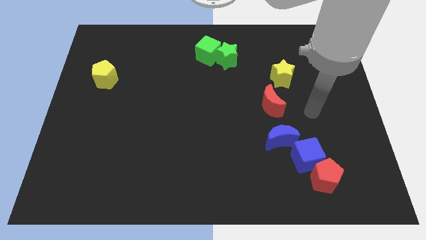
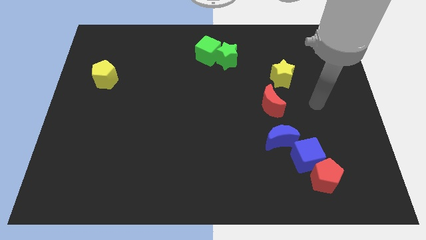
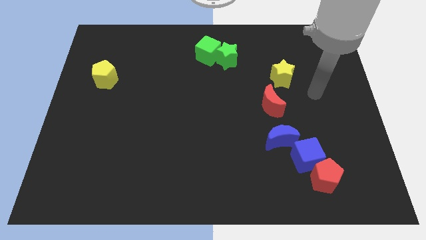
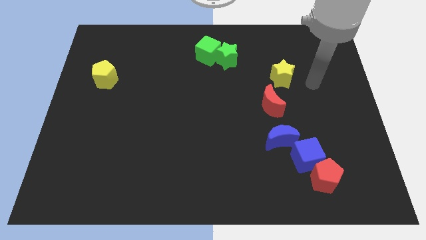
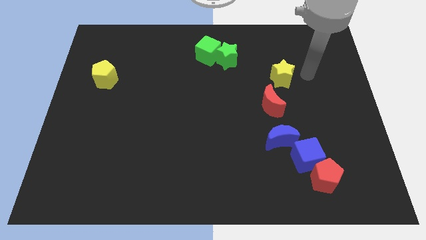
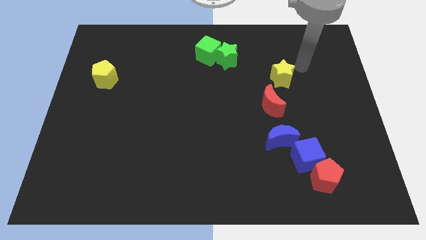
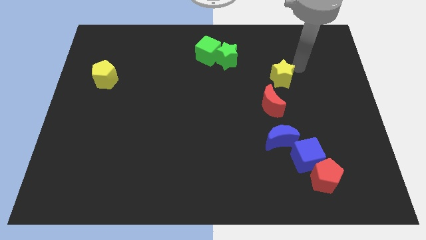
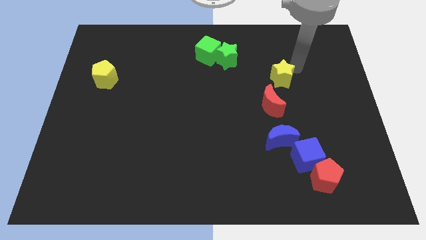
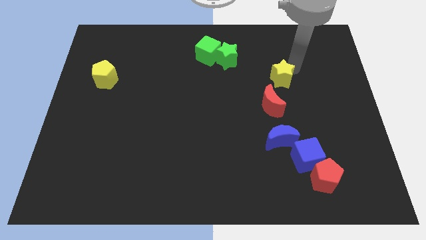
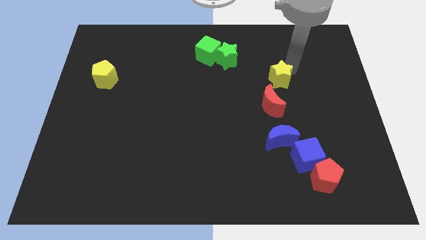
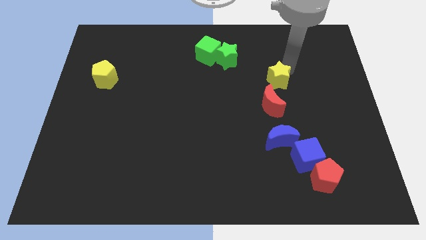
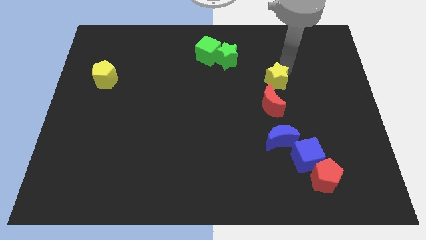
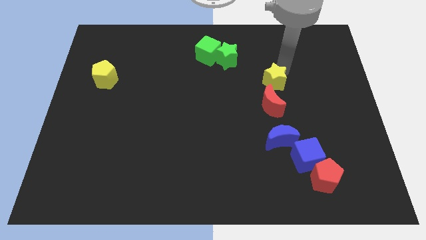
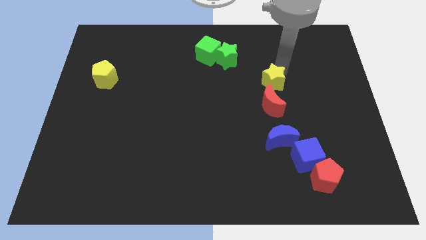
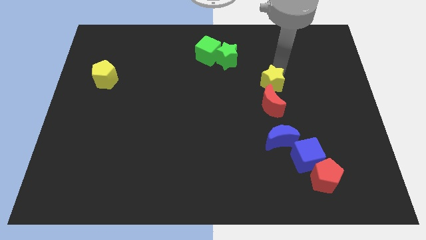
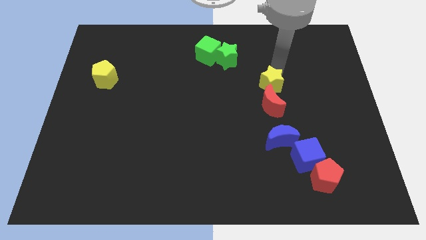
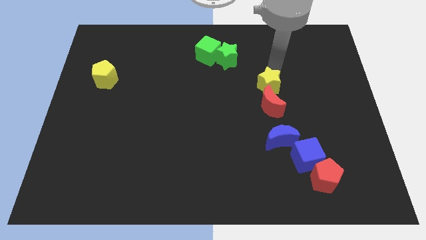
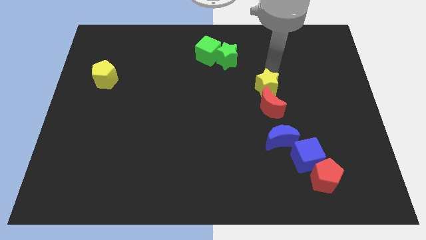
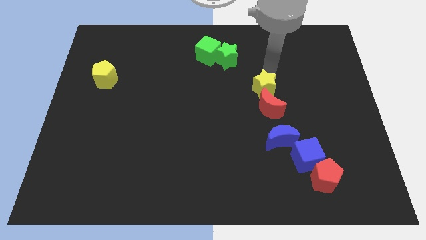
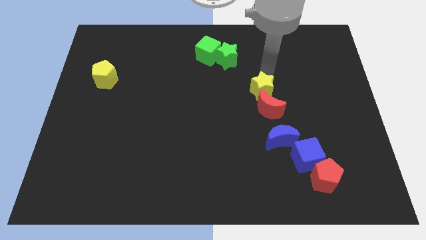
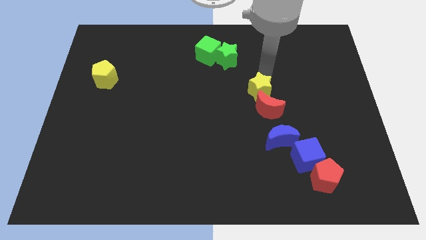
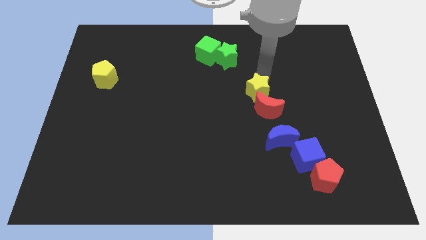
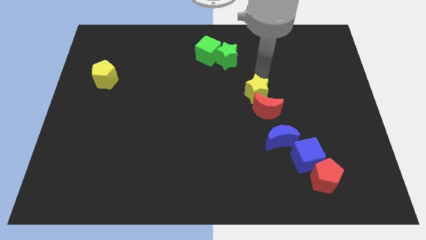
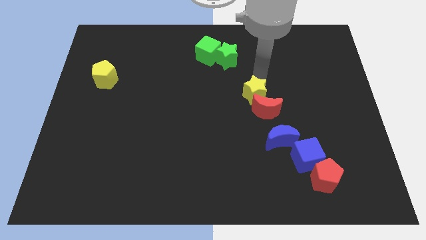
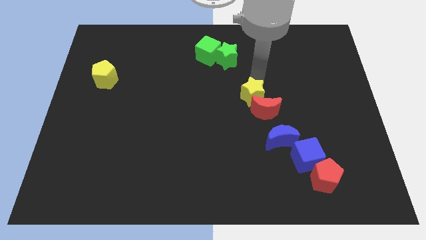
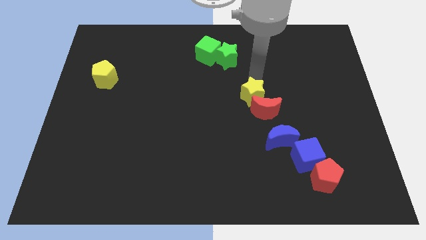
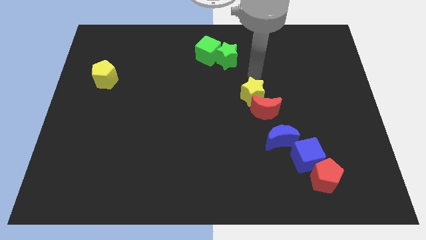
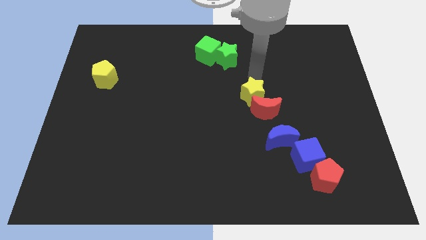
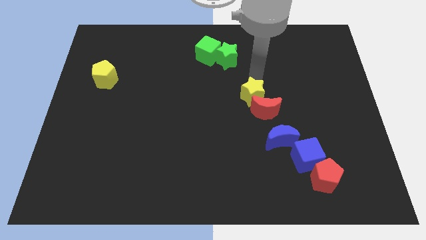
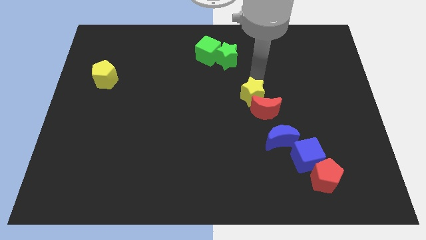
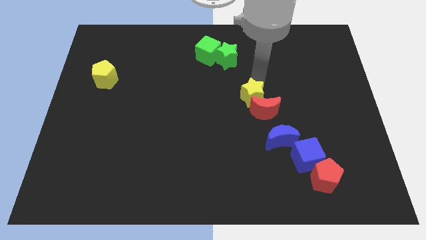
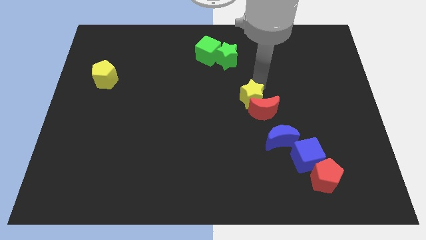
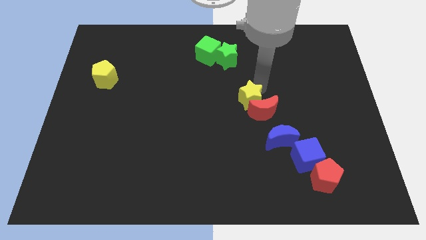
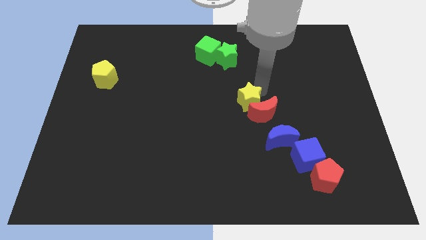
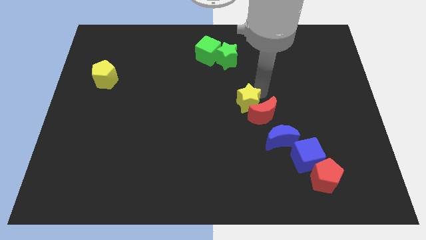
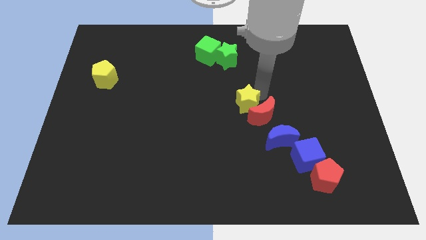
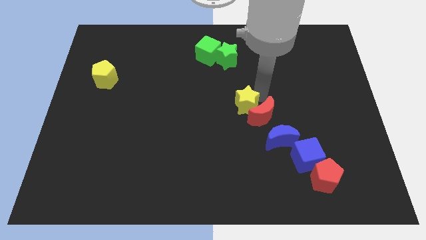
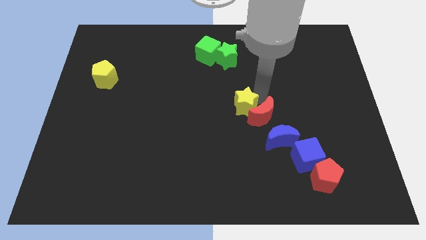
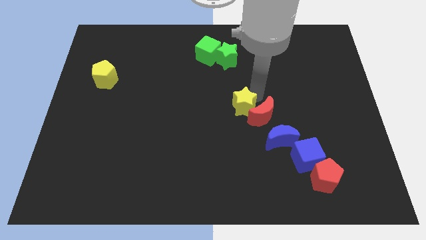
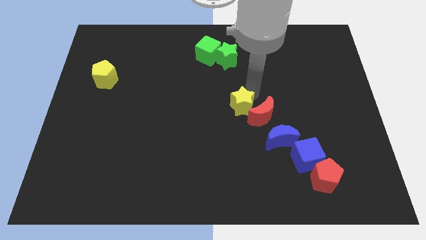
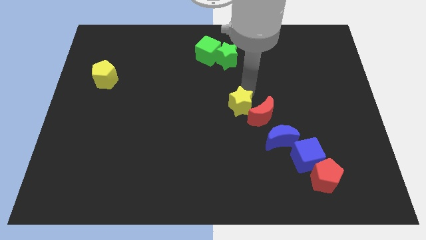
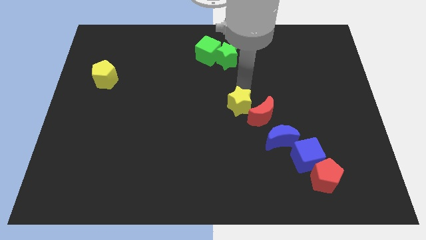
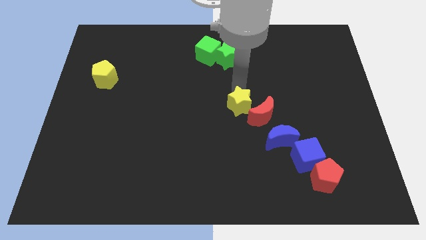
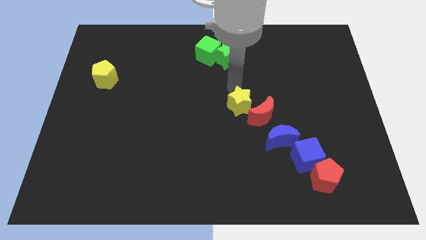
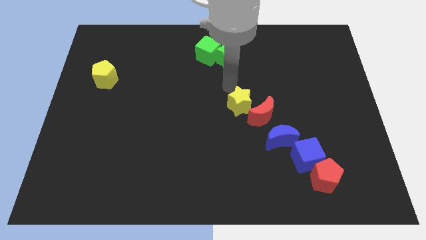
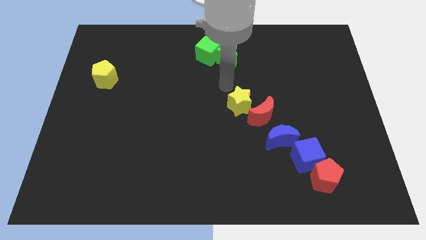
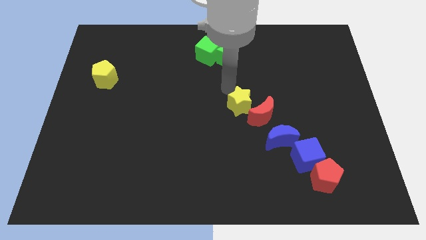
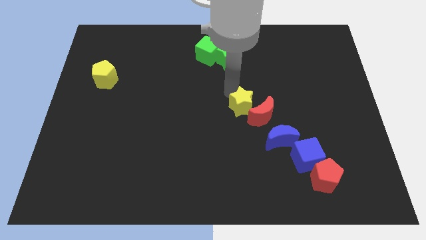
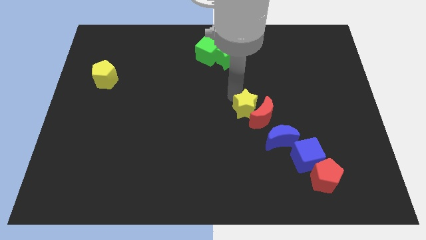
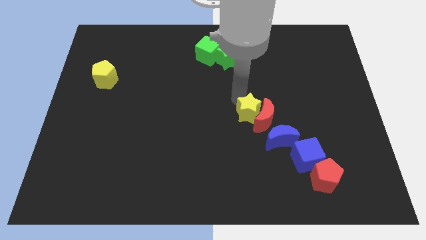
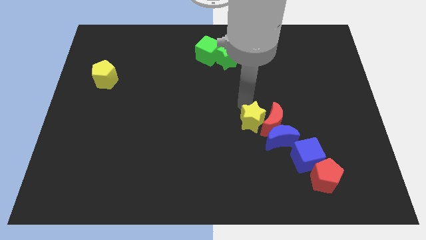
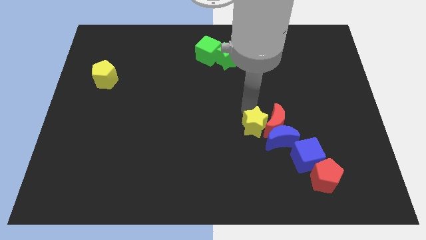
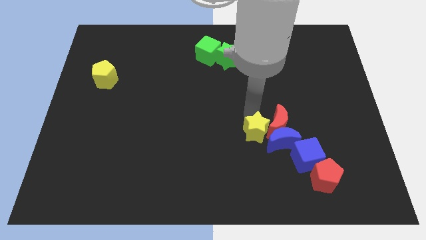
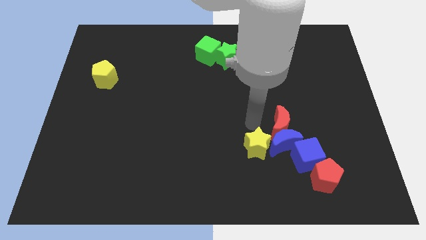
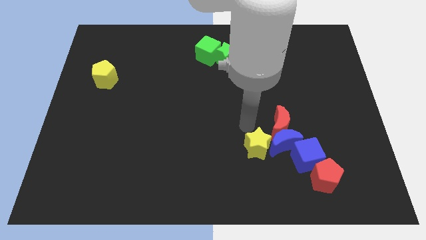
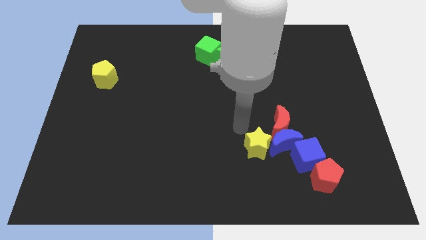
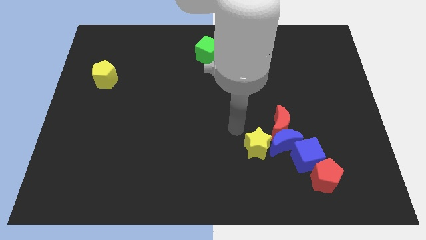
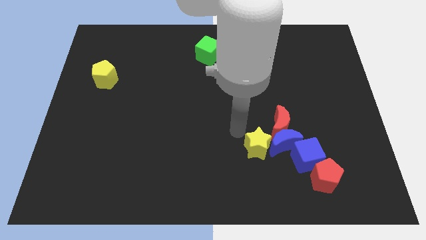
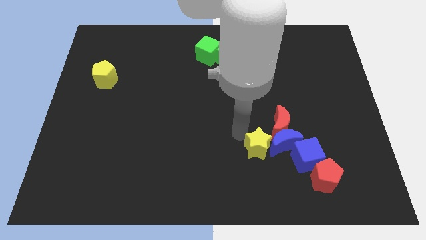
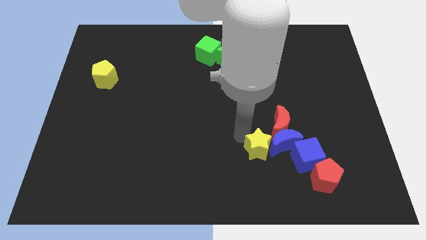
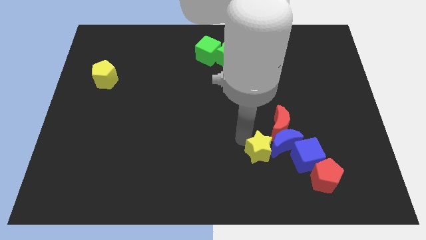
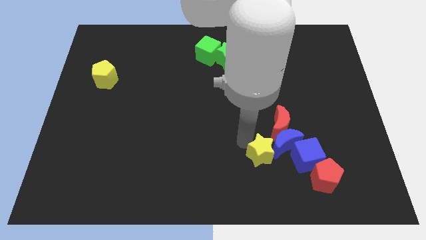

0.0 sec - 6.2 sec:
push the yellow star to the bottom side of the red moon
